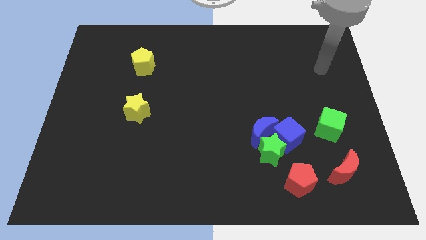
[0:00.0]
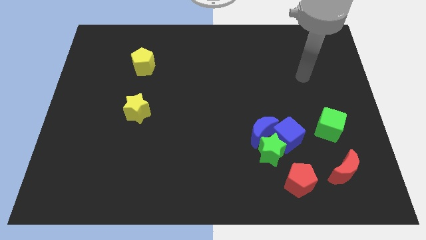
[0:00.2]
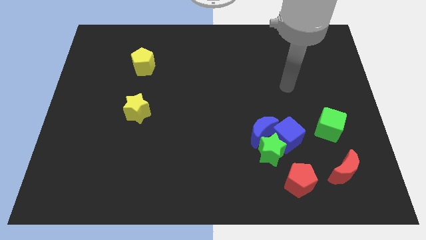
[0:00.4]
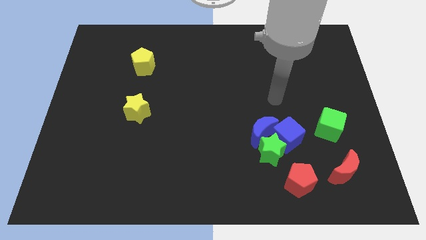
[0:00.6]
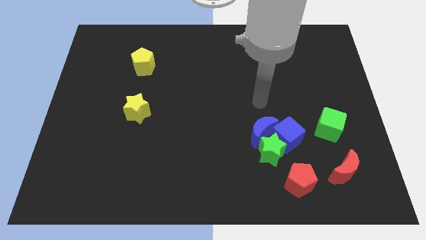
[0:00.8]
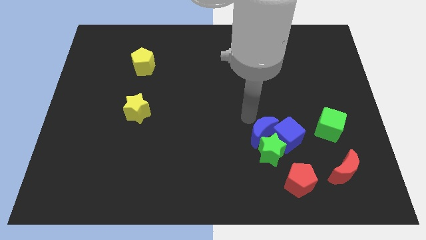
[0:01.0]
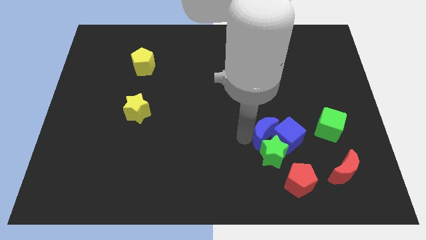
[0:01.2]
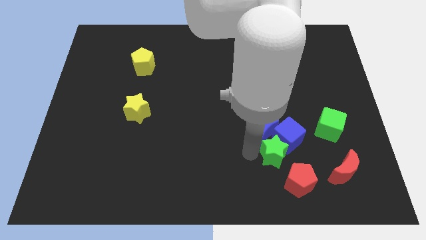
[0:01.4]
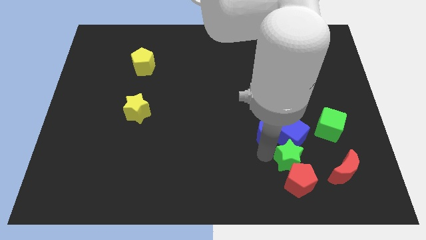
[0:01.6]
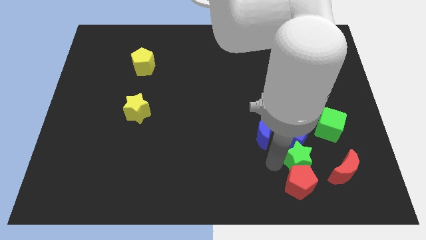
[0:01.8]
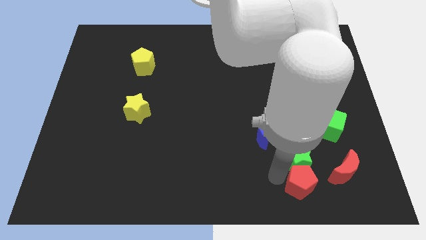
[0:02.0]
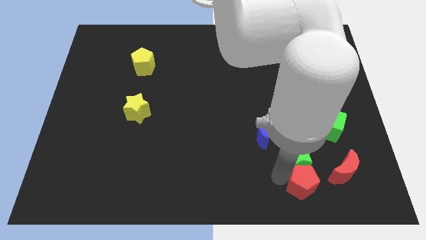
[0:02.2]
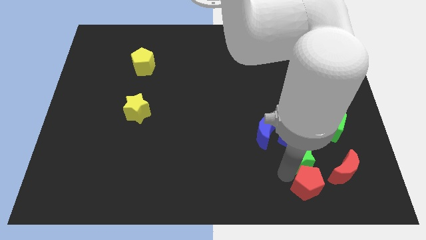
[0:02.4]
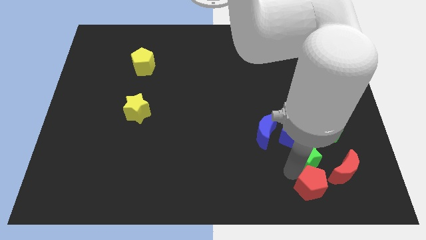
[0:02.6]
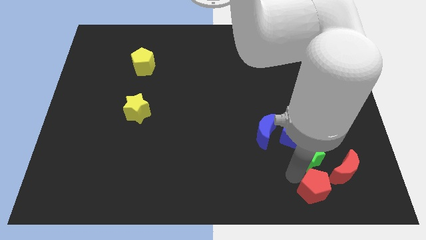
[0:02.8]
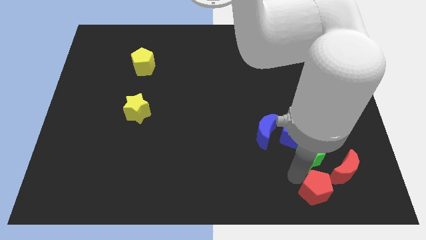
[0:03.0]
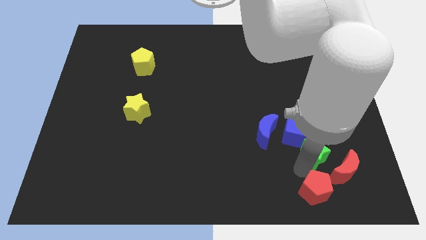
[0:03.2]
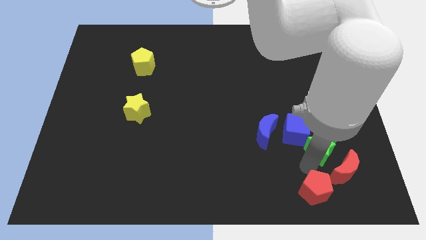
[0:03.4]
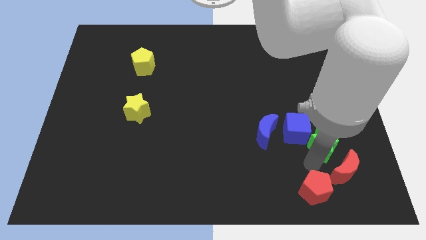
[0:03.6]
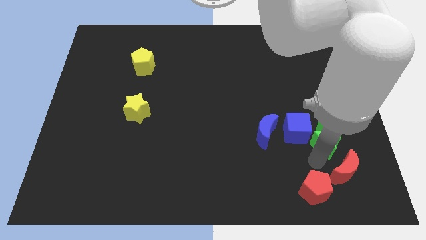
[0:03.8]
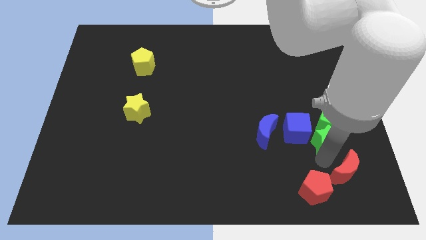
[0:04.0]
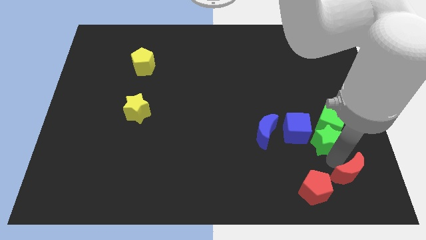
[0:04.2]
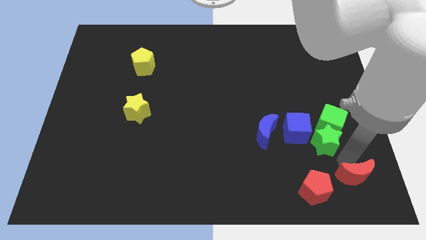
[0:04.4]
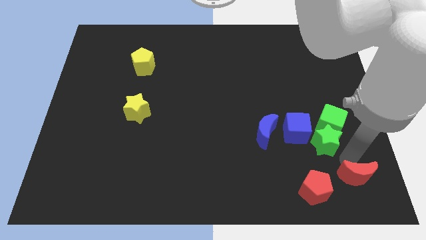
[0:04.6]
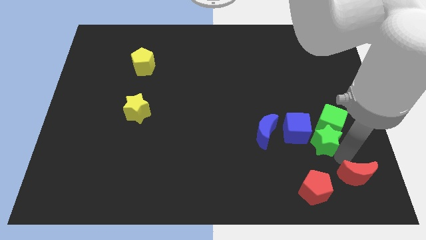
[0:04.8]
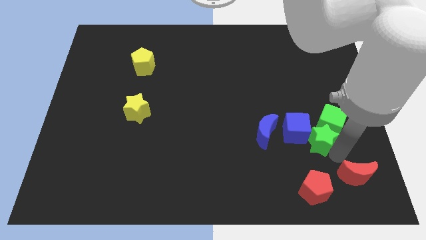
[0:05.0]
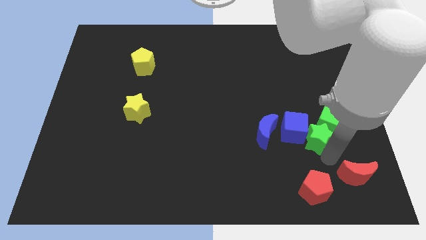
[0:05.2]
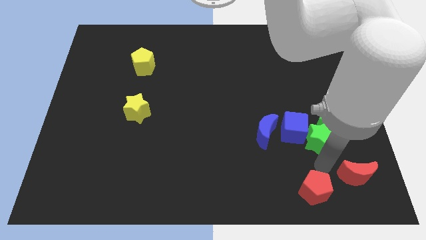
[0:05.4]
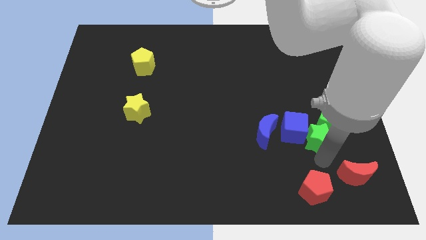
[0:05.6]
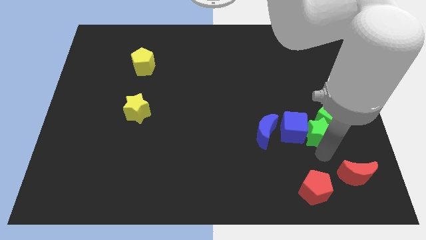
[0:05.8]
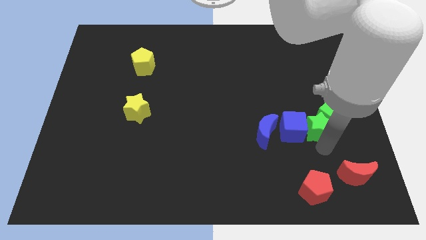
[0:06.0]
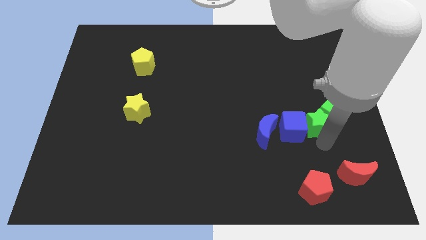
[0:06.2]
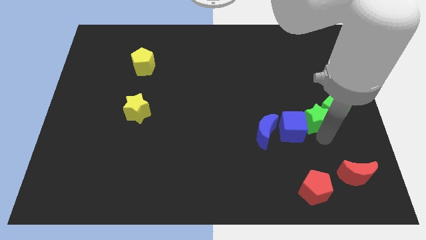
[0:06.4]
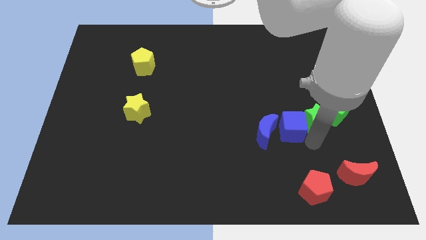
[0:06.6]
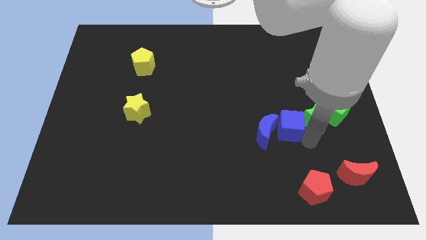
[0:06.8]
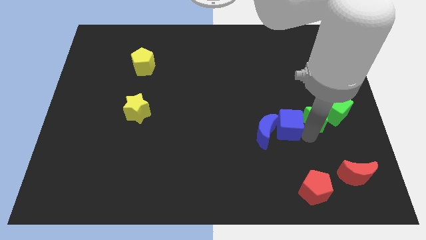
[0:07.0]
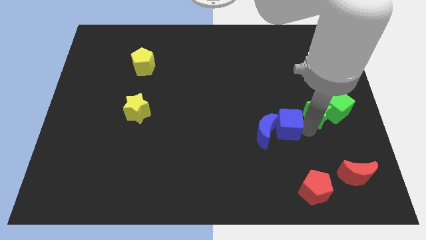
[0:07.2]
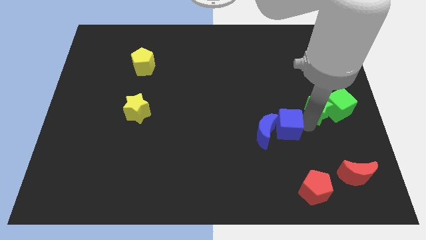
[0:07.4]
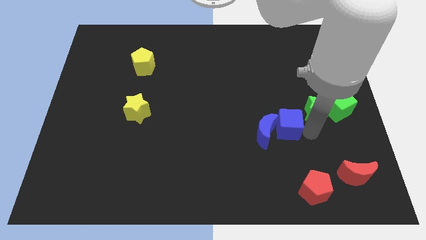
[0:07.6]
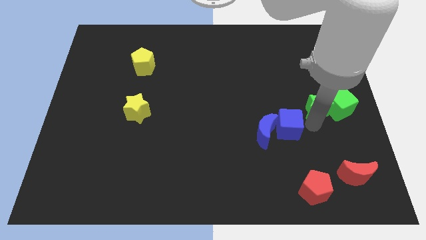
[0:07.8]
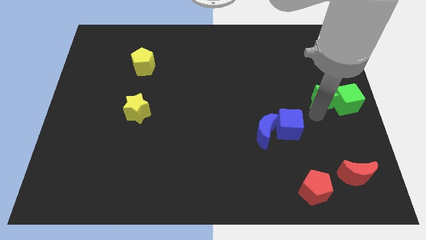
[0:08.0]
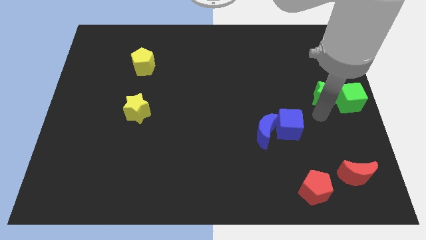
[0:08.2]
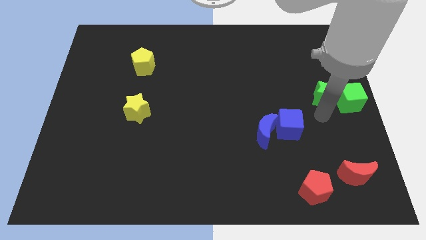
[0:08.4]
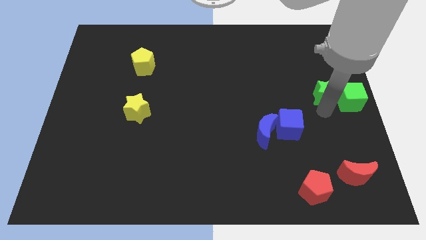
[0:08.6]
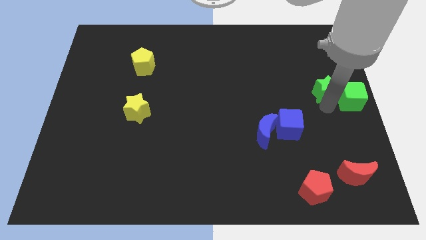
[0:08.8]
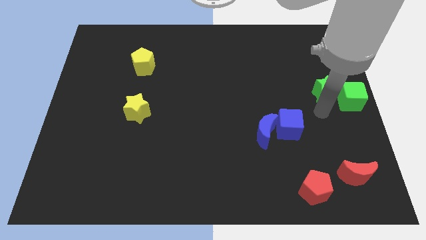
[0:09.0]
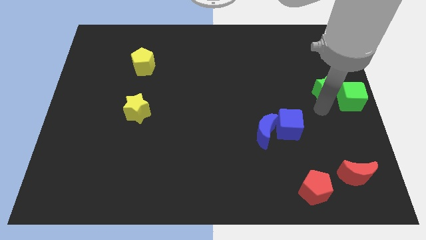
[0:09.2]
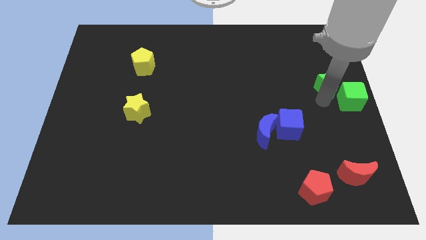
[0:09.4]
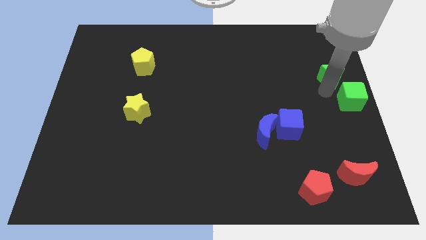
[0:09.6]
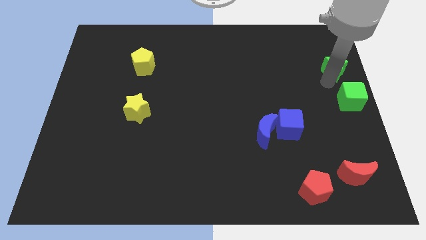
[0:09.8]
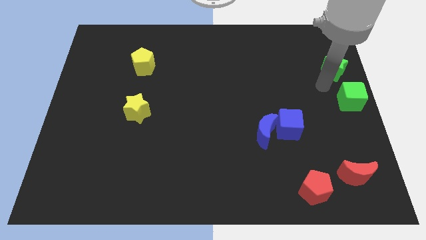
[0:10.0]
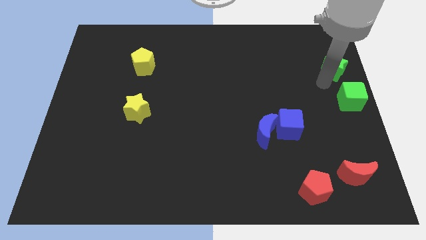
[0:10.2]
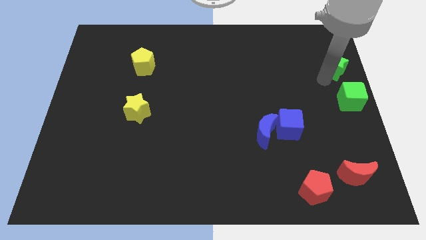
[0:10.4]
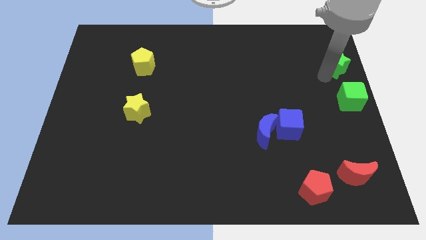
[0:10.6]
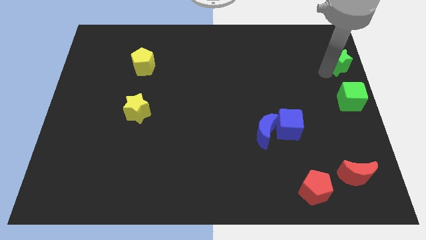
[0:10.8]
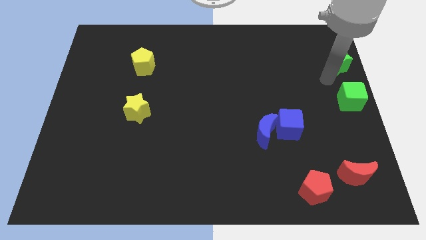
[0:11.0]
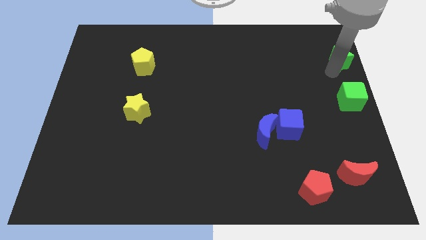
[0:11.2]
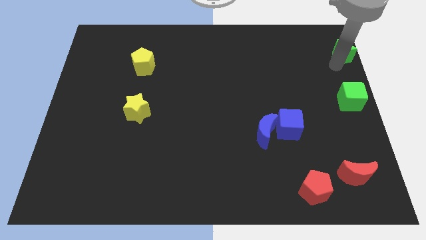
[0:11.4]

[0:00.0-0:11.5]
move the green star to the top right of the board

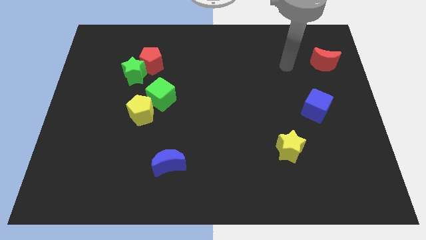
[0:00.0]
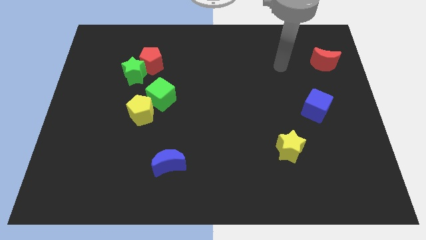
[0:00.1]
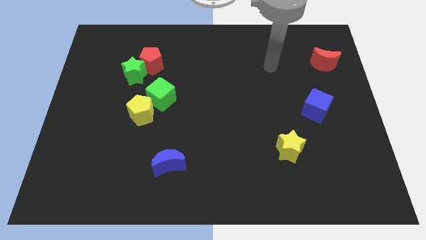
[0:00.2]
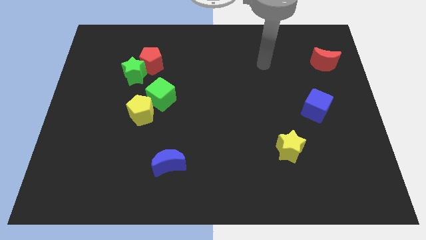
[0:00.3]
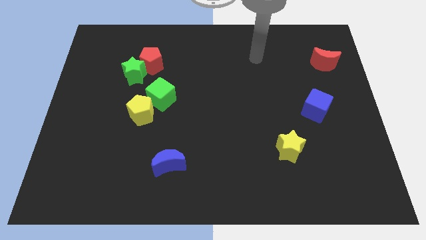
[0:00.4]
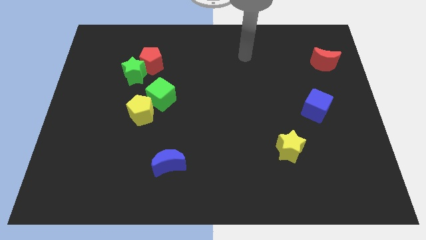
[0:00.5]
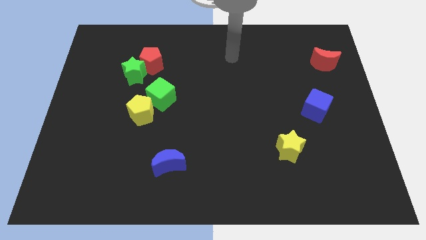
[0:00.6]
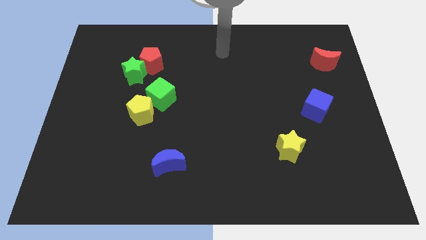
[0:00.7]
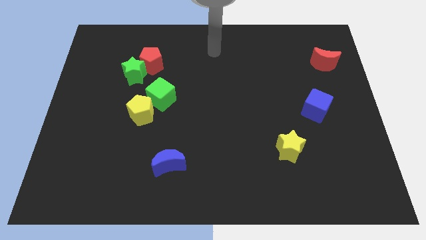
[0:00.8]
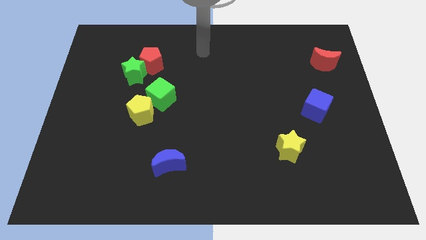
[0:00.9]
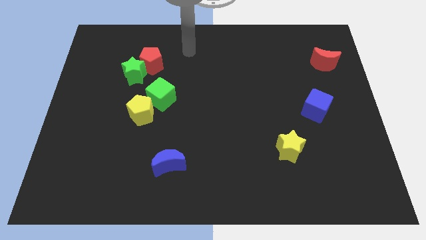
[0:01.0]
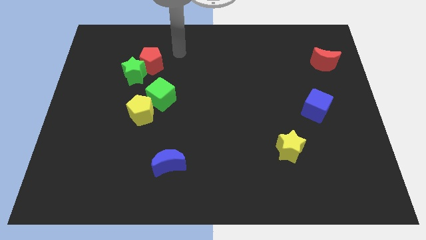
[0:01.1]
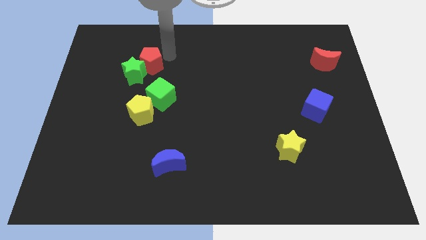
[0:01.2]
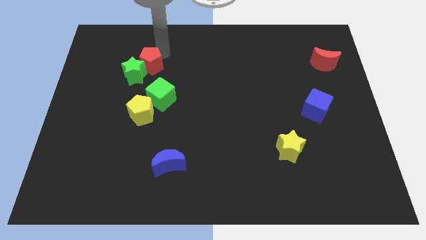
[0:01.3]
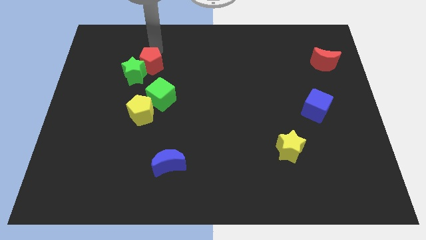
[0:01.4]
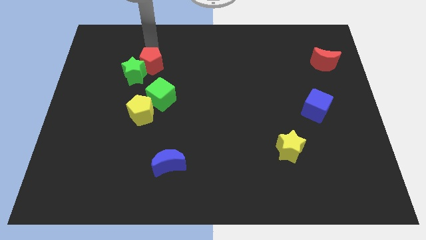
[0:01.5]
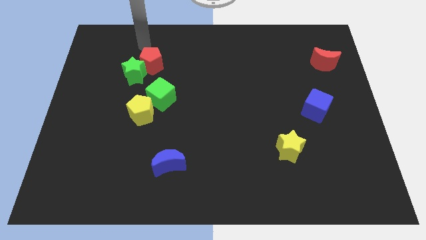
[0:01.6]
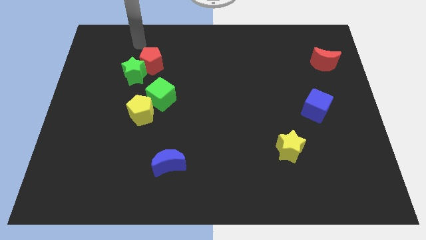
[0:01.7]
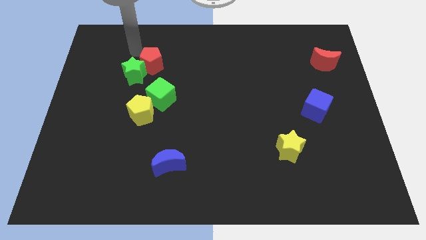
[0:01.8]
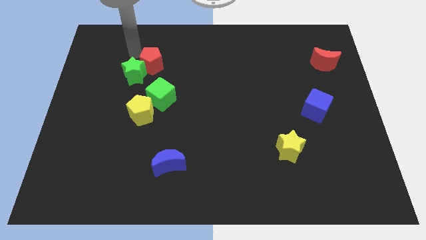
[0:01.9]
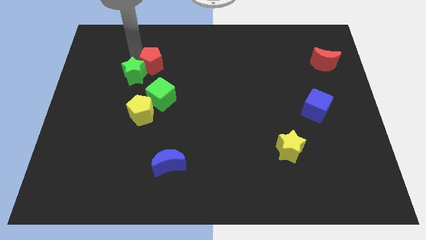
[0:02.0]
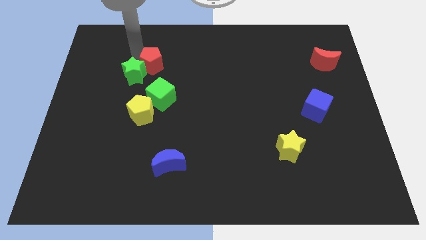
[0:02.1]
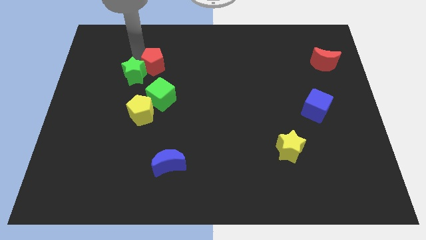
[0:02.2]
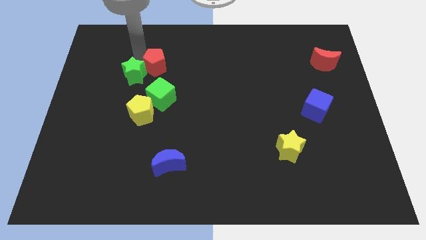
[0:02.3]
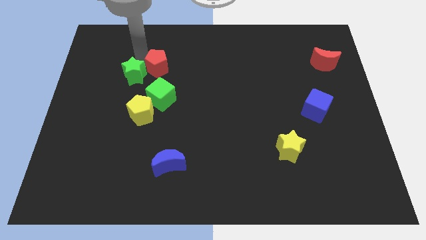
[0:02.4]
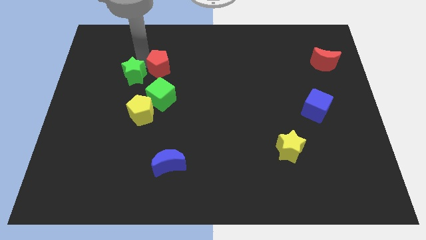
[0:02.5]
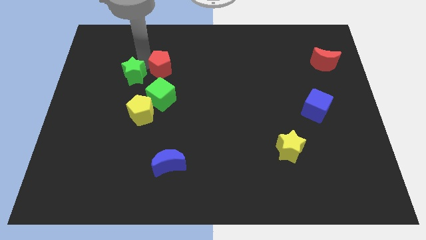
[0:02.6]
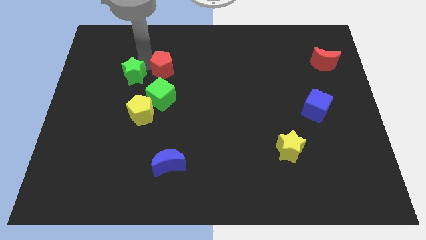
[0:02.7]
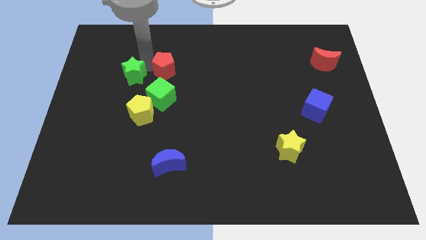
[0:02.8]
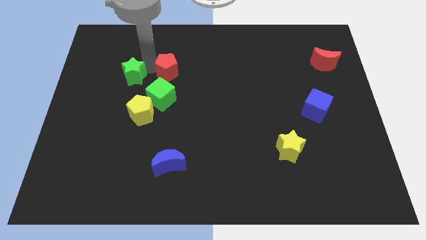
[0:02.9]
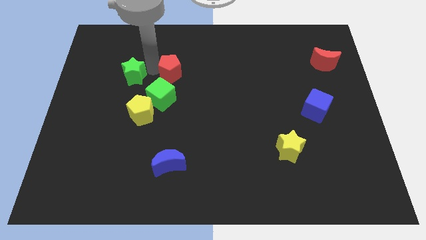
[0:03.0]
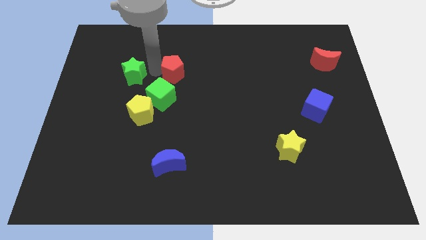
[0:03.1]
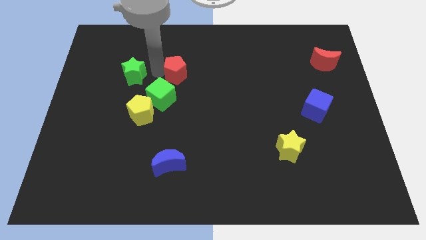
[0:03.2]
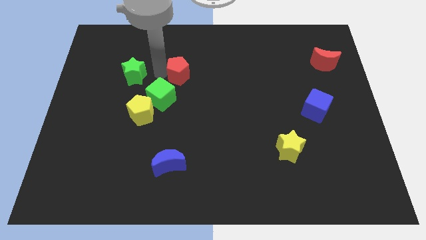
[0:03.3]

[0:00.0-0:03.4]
move the red pentagon to the middle of the board
